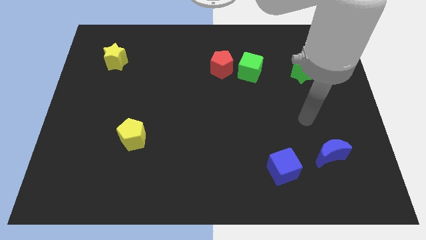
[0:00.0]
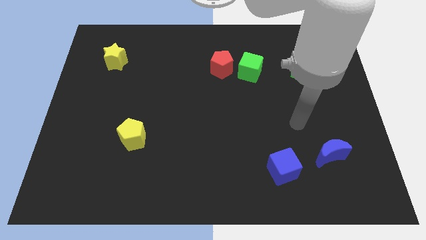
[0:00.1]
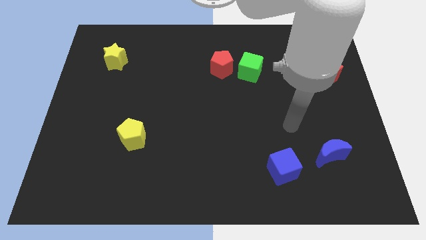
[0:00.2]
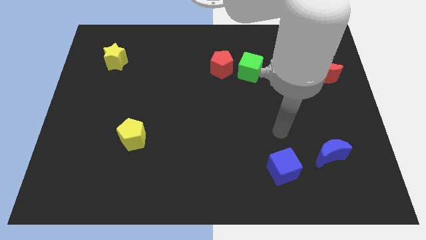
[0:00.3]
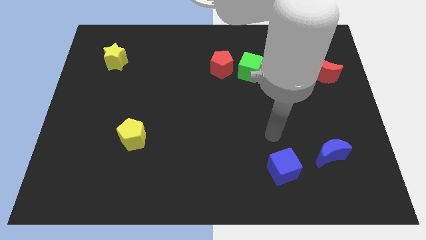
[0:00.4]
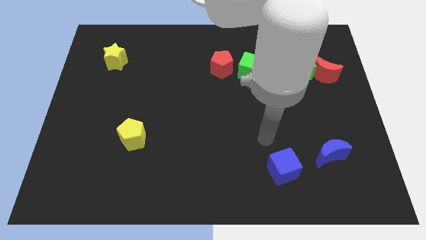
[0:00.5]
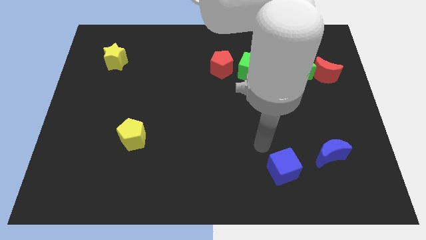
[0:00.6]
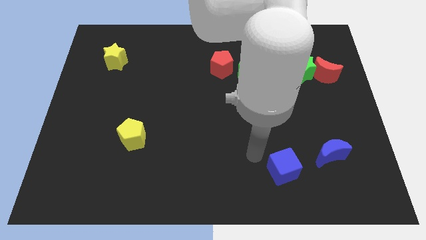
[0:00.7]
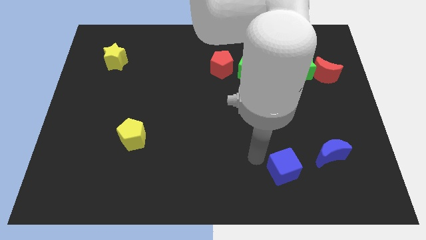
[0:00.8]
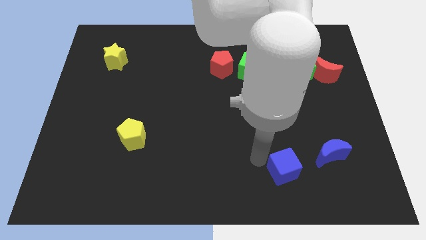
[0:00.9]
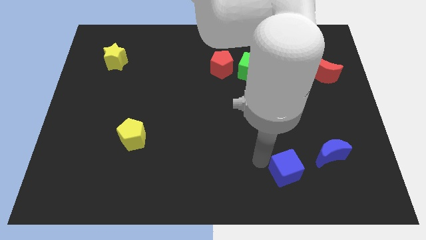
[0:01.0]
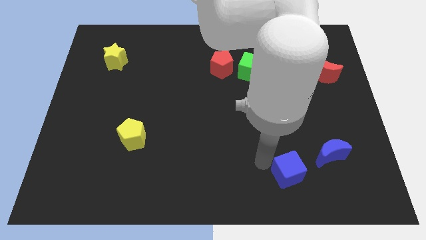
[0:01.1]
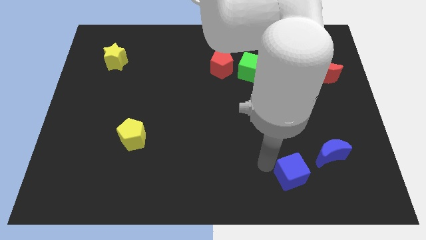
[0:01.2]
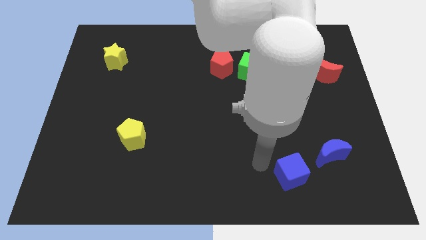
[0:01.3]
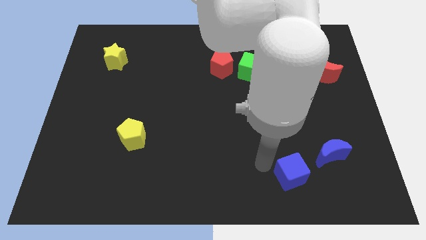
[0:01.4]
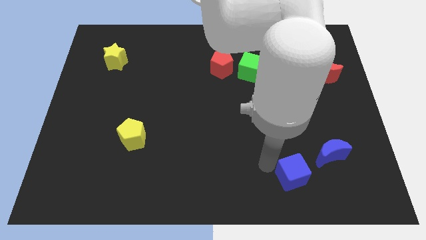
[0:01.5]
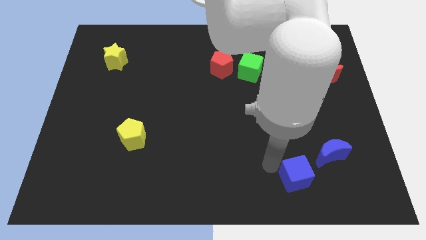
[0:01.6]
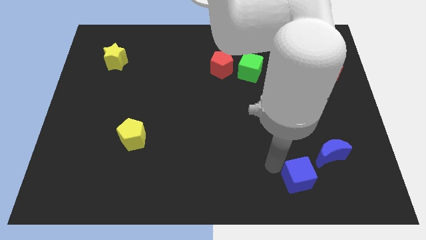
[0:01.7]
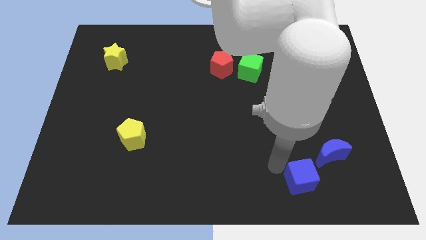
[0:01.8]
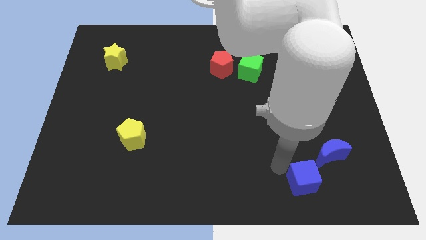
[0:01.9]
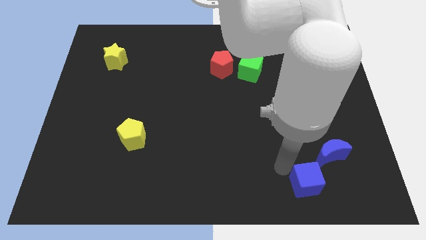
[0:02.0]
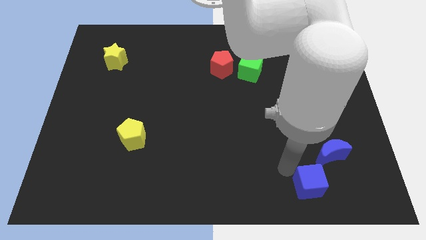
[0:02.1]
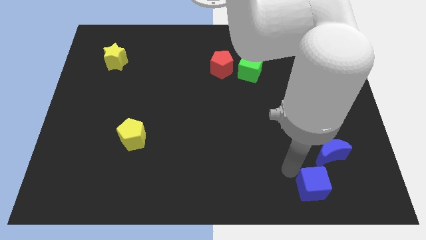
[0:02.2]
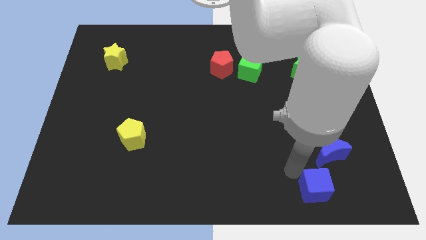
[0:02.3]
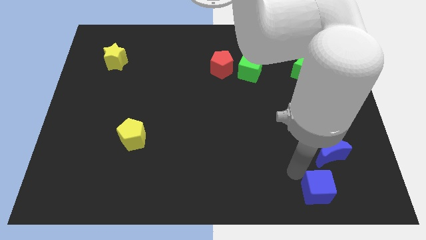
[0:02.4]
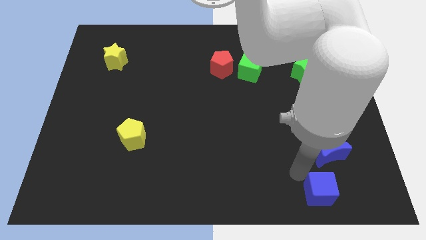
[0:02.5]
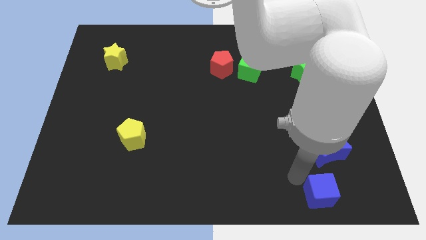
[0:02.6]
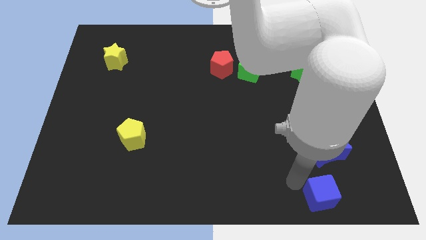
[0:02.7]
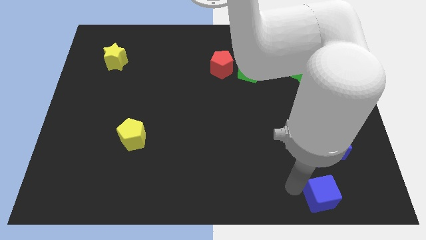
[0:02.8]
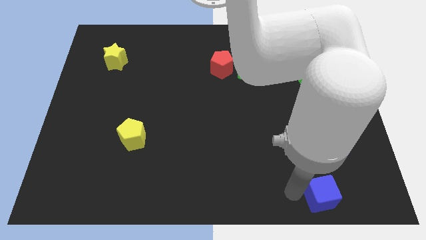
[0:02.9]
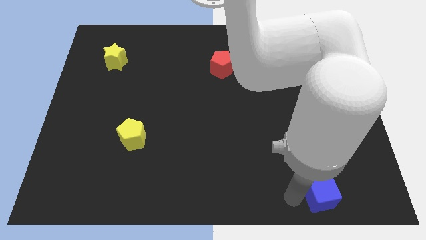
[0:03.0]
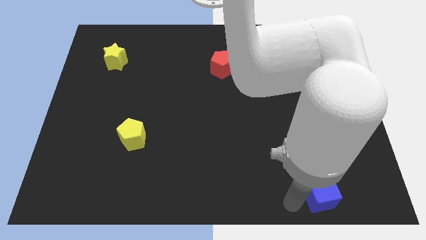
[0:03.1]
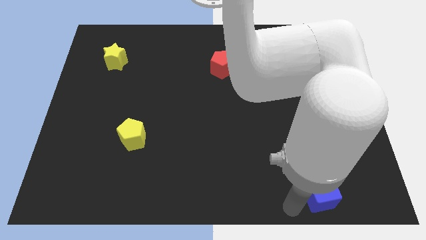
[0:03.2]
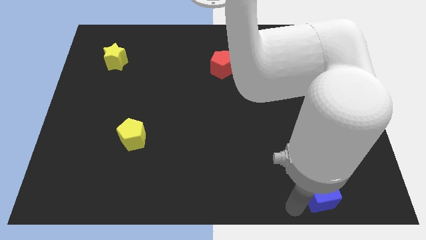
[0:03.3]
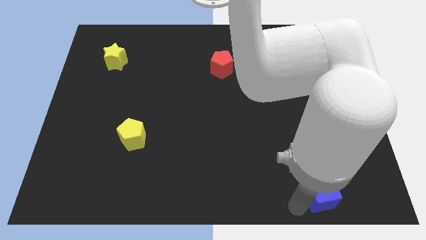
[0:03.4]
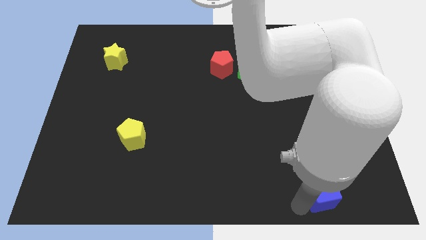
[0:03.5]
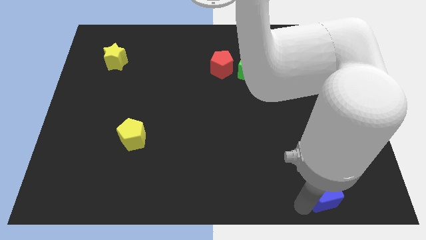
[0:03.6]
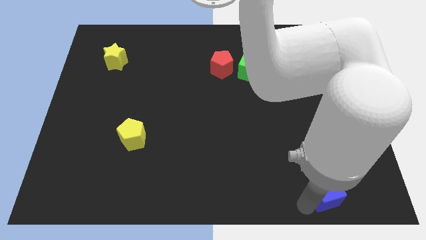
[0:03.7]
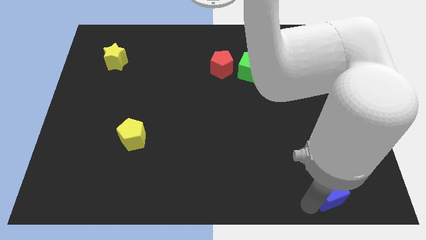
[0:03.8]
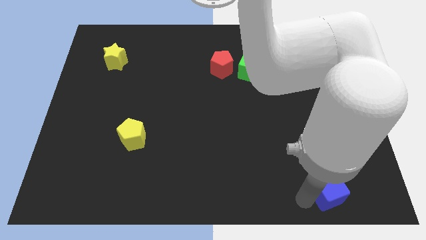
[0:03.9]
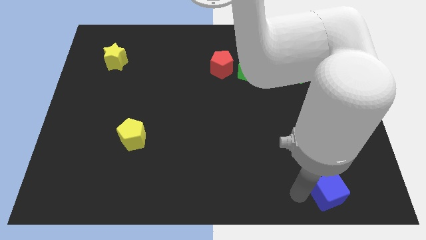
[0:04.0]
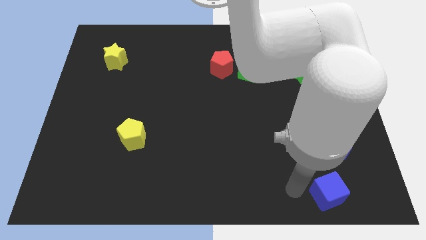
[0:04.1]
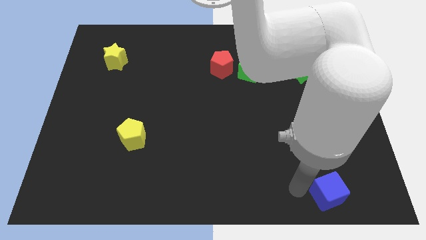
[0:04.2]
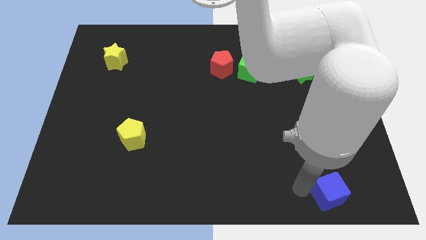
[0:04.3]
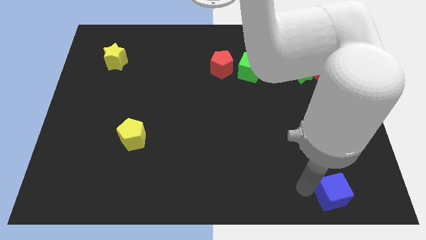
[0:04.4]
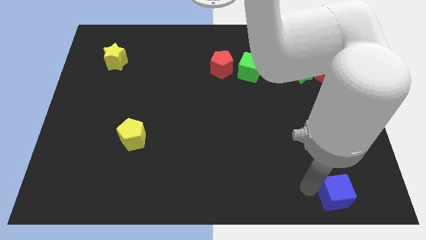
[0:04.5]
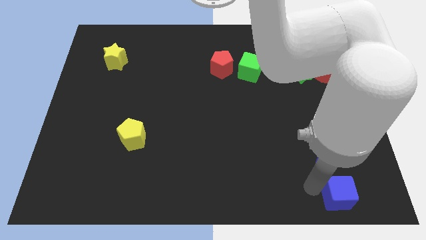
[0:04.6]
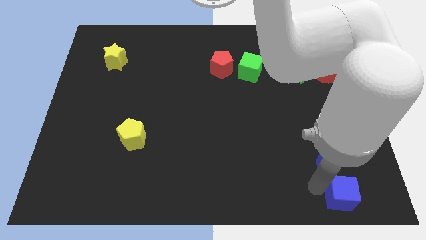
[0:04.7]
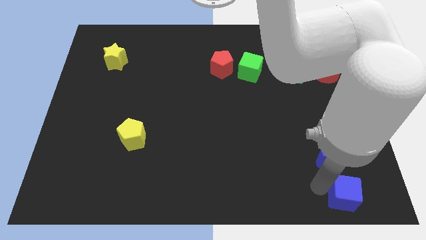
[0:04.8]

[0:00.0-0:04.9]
push the blue cube to the bottom right of the board
